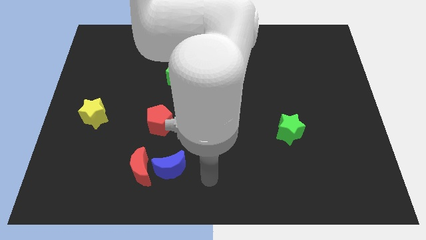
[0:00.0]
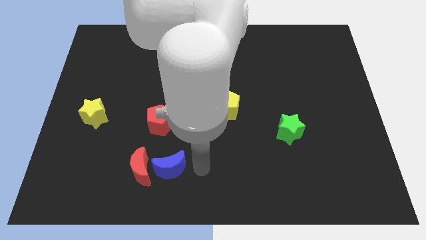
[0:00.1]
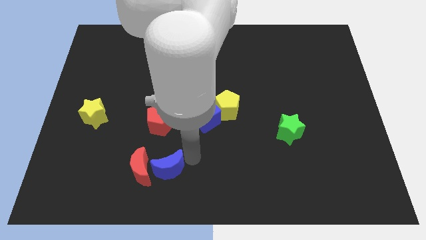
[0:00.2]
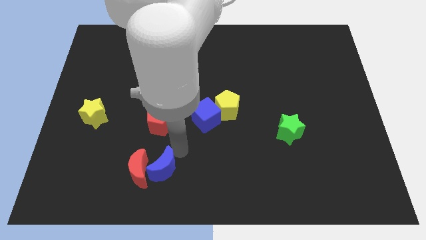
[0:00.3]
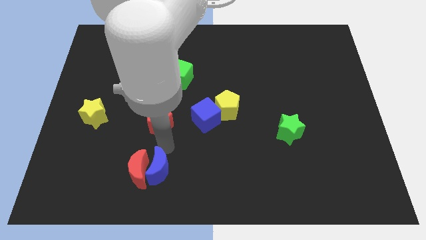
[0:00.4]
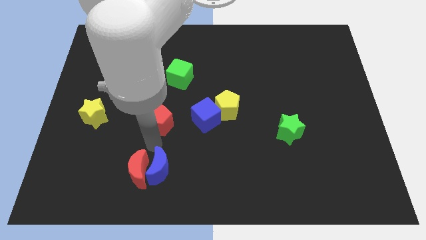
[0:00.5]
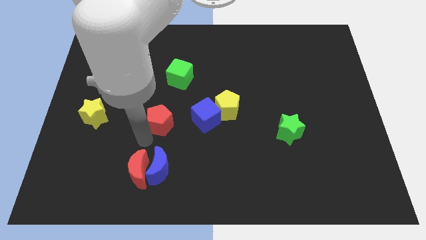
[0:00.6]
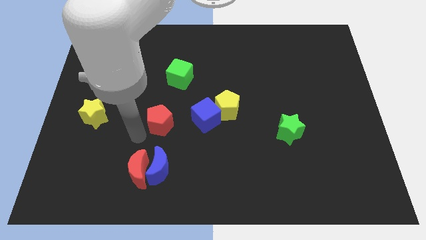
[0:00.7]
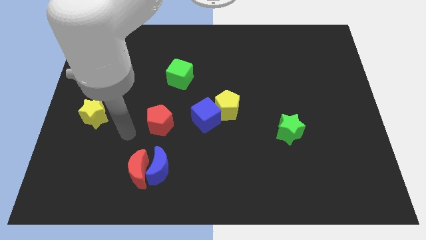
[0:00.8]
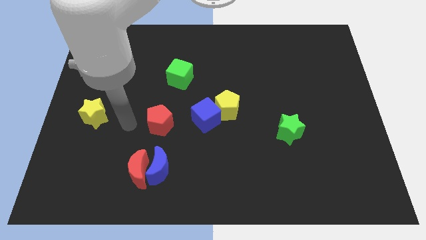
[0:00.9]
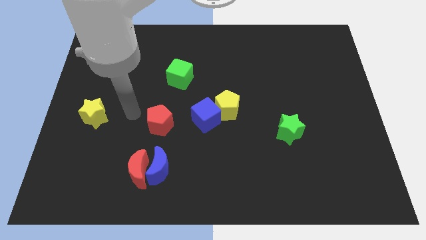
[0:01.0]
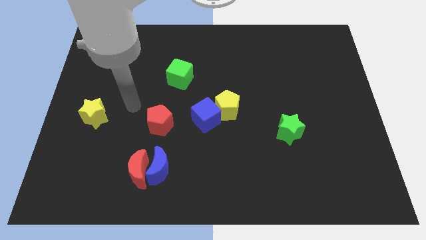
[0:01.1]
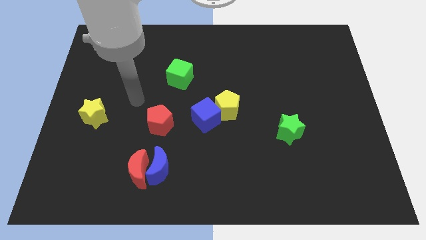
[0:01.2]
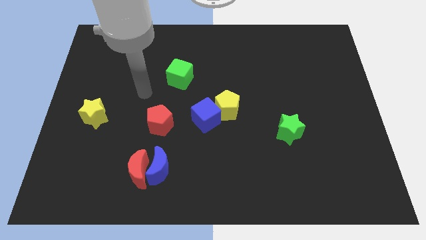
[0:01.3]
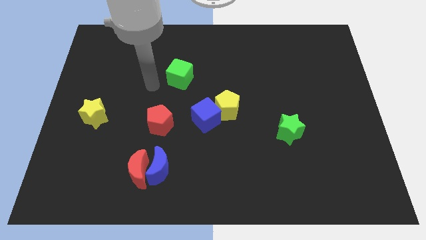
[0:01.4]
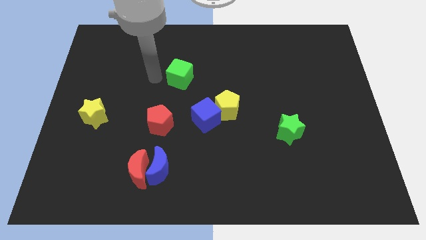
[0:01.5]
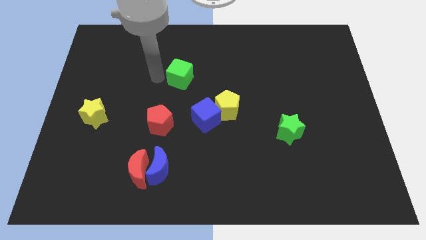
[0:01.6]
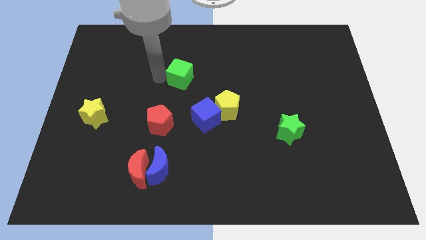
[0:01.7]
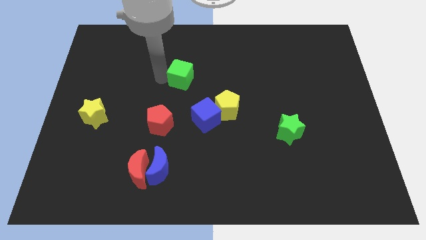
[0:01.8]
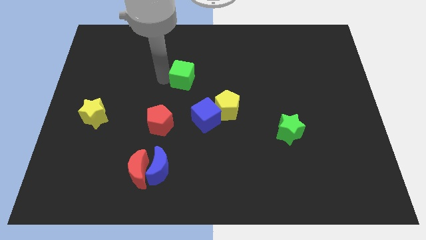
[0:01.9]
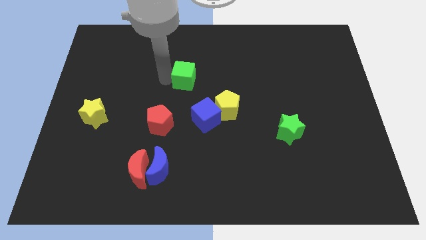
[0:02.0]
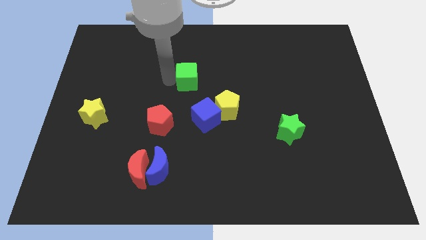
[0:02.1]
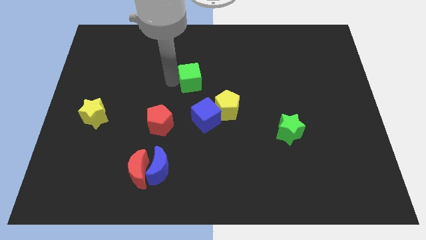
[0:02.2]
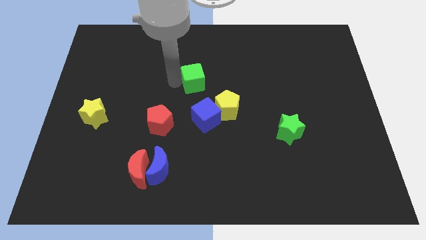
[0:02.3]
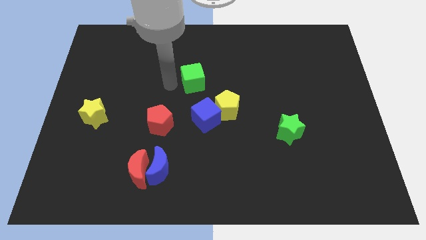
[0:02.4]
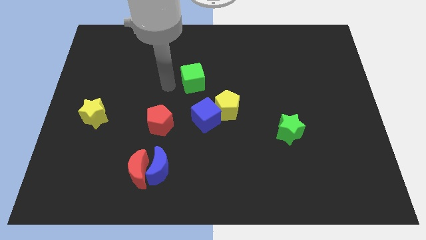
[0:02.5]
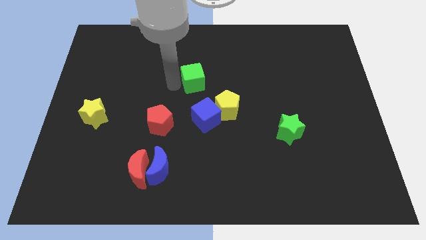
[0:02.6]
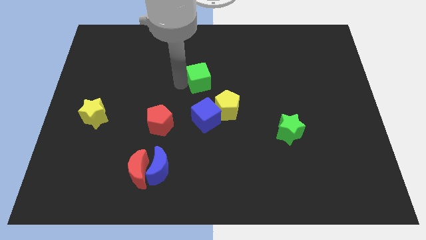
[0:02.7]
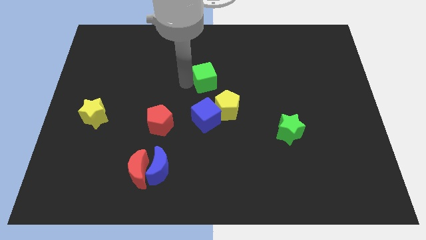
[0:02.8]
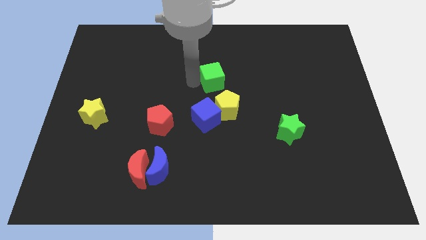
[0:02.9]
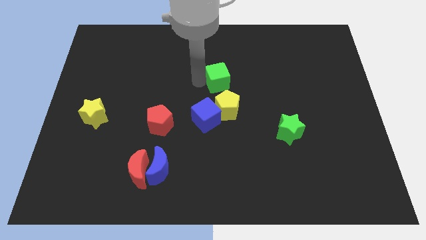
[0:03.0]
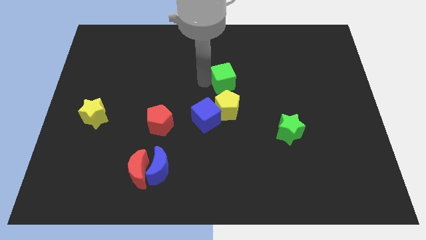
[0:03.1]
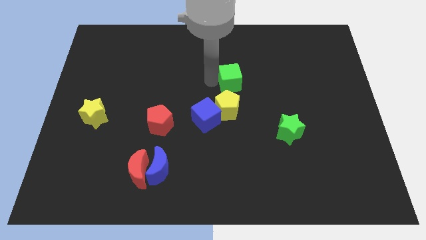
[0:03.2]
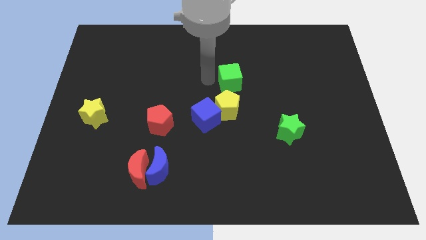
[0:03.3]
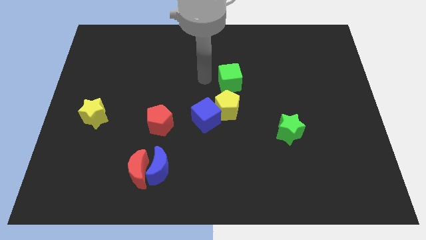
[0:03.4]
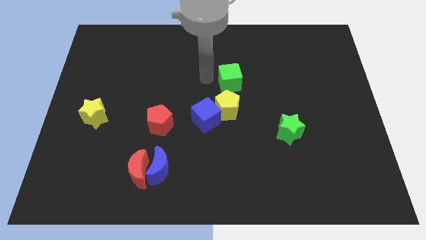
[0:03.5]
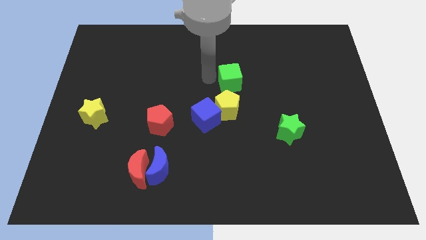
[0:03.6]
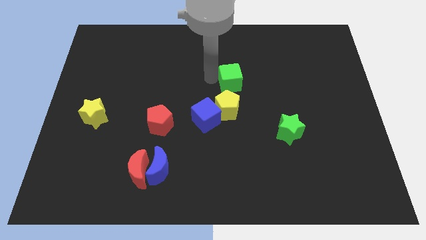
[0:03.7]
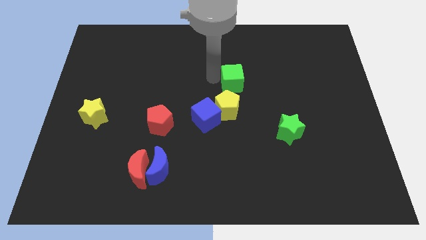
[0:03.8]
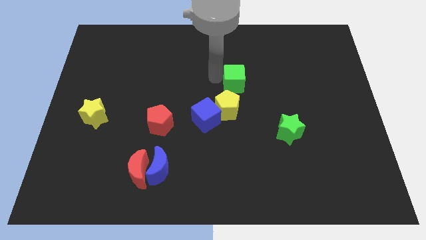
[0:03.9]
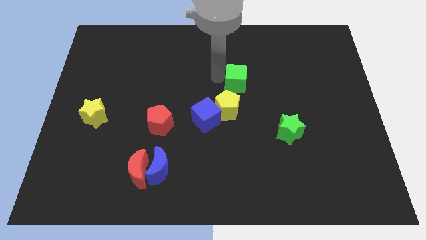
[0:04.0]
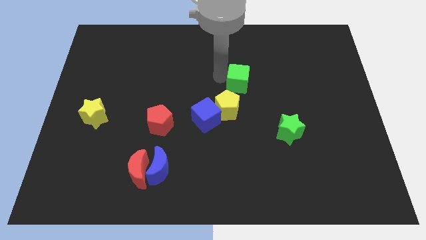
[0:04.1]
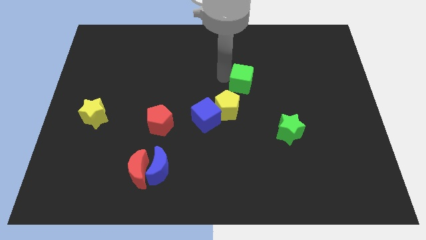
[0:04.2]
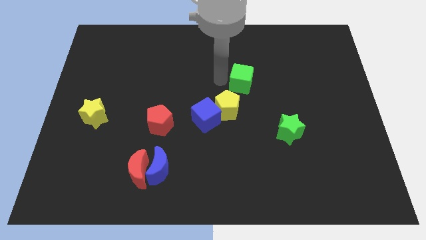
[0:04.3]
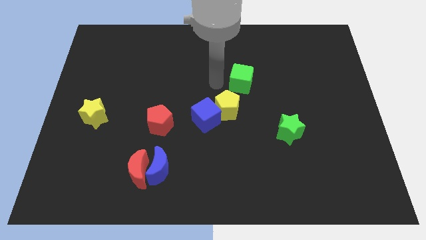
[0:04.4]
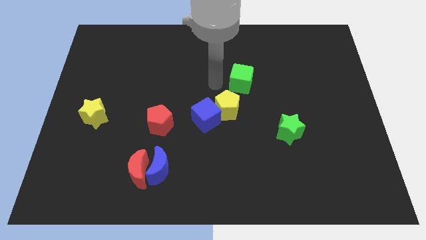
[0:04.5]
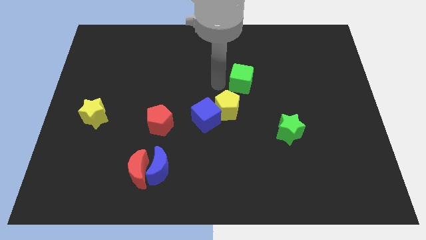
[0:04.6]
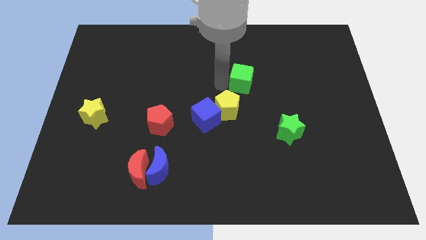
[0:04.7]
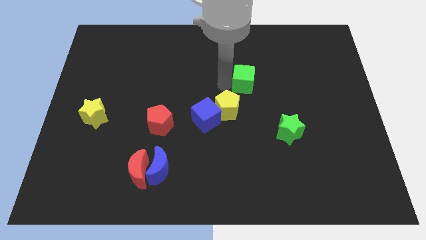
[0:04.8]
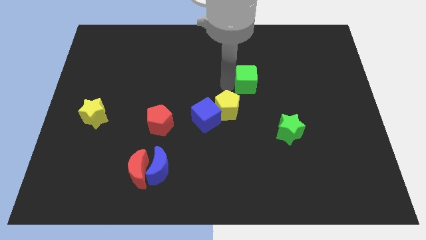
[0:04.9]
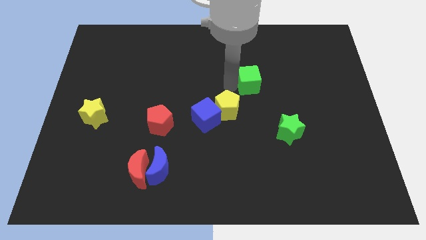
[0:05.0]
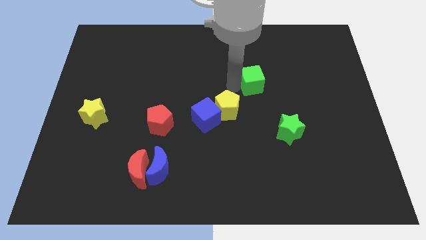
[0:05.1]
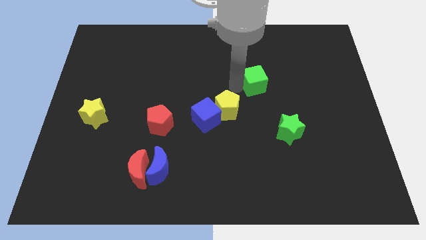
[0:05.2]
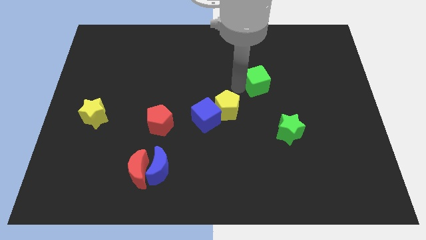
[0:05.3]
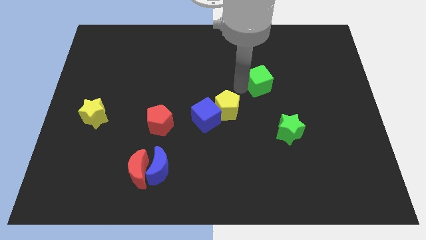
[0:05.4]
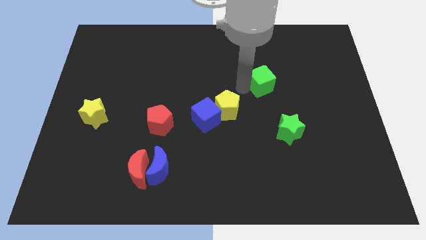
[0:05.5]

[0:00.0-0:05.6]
push the green cube right

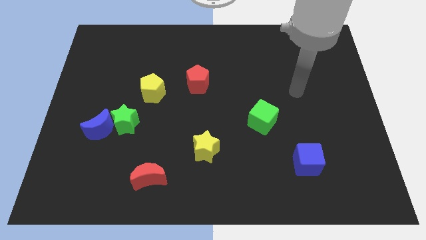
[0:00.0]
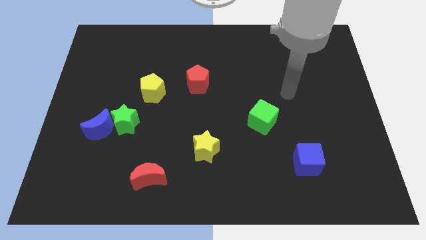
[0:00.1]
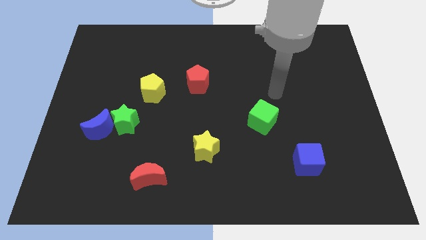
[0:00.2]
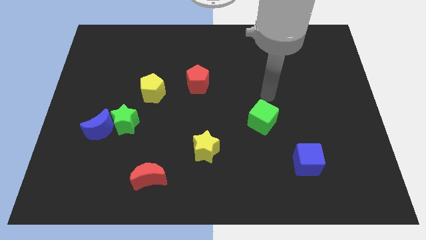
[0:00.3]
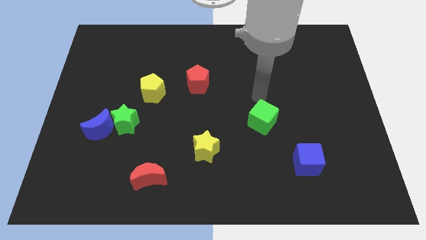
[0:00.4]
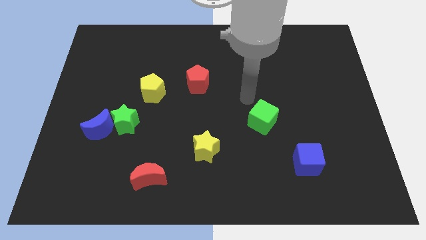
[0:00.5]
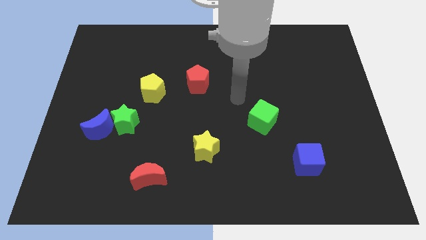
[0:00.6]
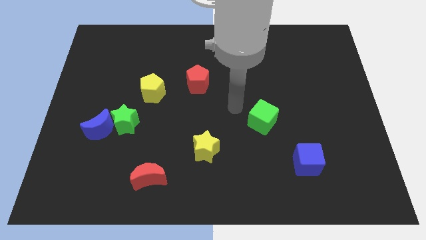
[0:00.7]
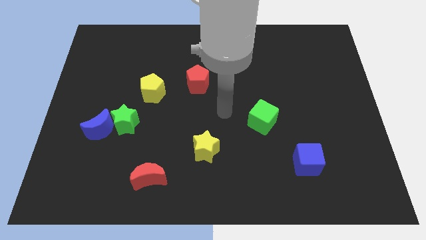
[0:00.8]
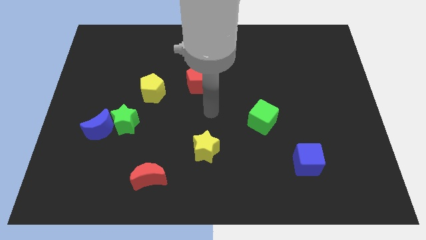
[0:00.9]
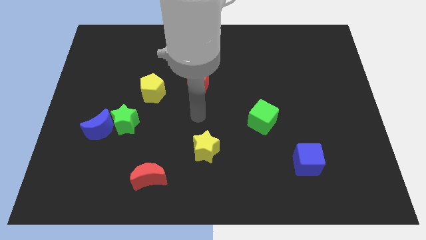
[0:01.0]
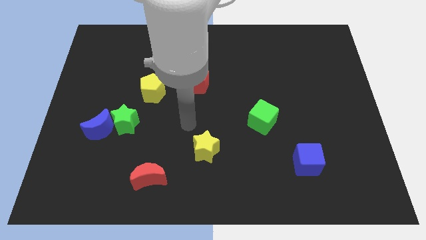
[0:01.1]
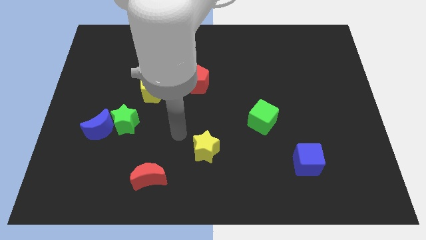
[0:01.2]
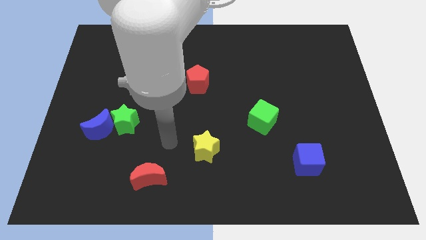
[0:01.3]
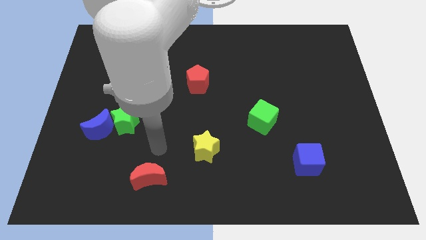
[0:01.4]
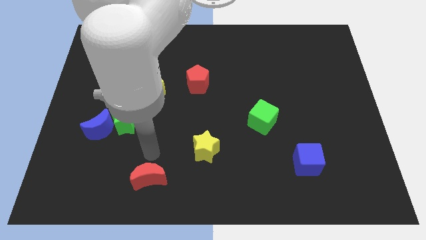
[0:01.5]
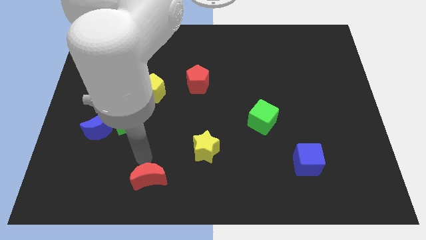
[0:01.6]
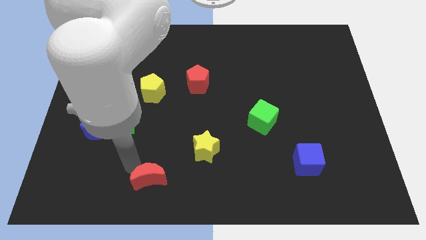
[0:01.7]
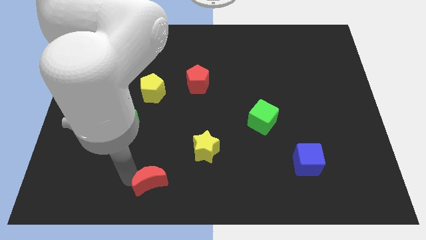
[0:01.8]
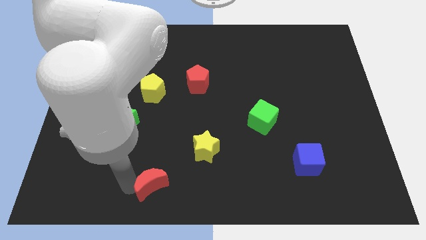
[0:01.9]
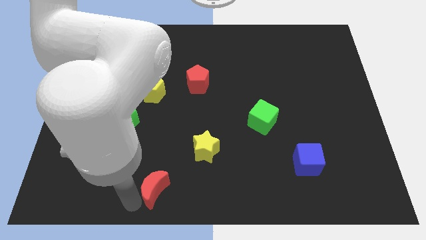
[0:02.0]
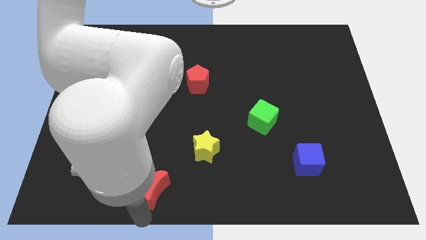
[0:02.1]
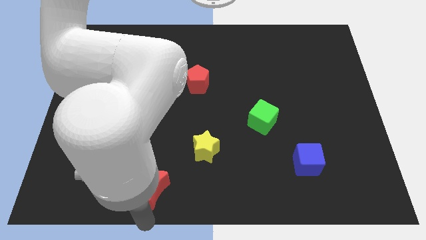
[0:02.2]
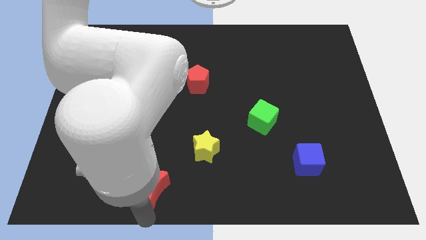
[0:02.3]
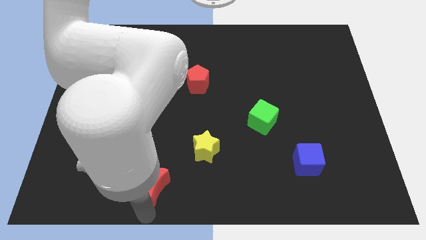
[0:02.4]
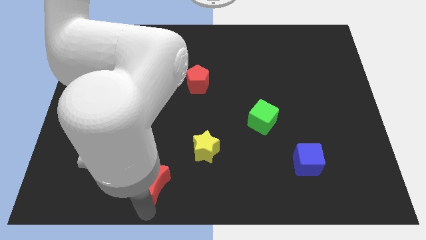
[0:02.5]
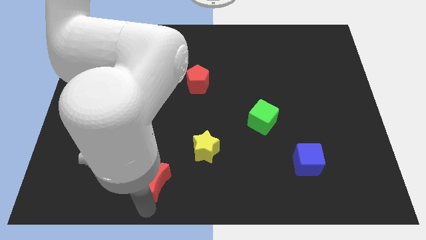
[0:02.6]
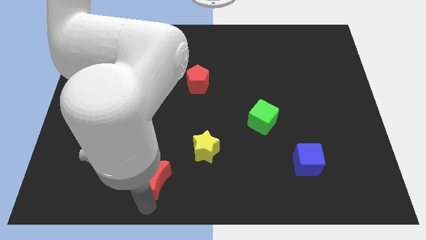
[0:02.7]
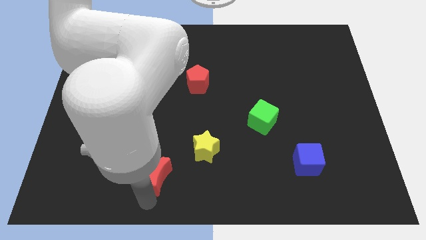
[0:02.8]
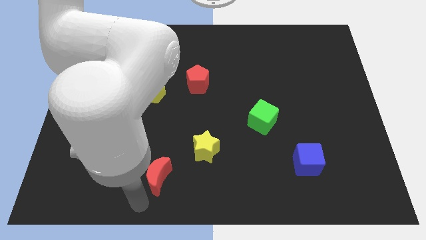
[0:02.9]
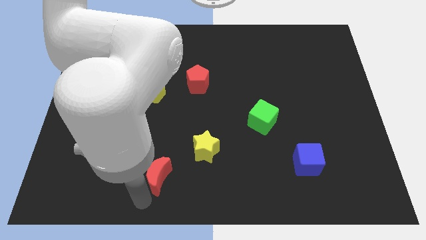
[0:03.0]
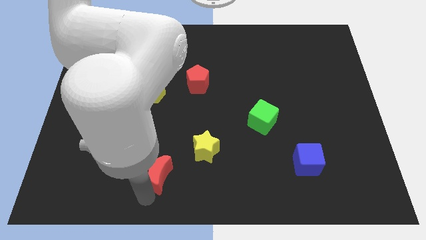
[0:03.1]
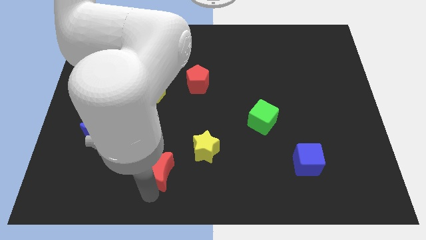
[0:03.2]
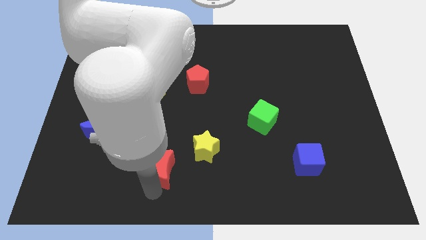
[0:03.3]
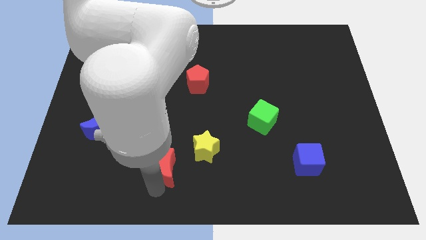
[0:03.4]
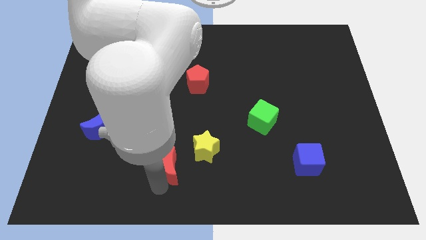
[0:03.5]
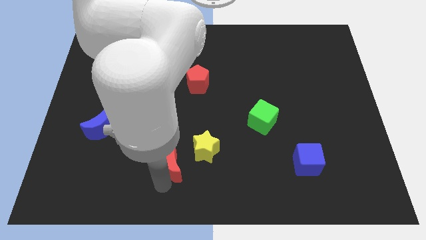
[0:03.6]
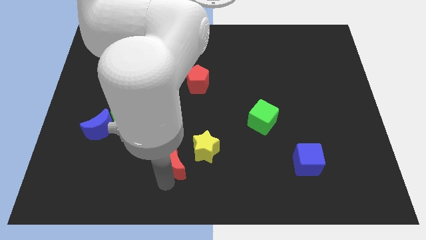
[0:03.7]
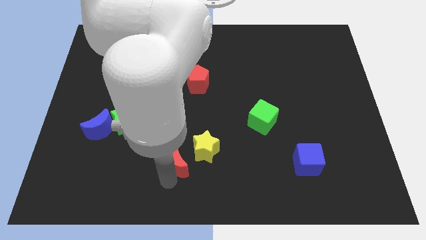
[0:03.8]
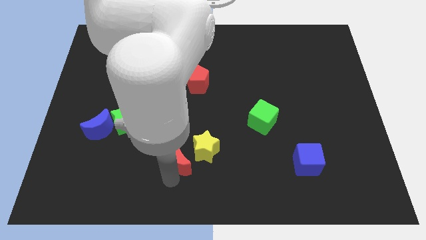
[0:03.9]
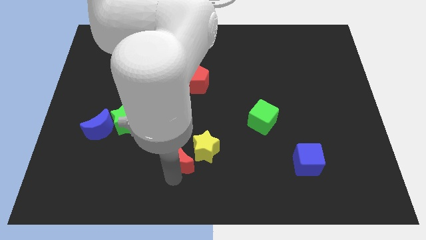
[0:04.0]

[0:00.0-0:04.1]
move the red moon a bit up and to the right diagonally
